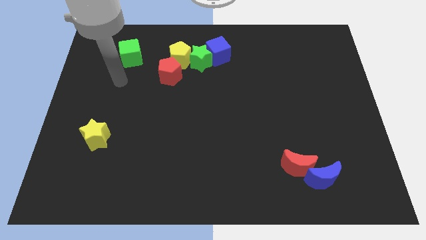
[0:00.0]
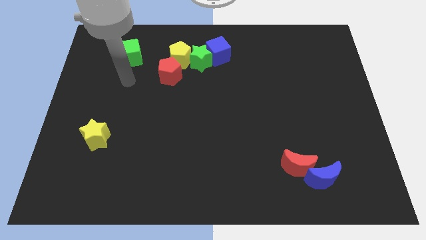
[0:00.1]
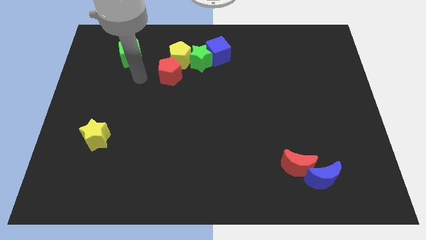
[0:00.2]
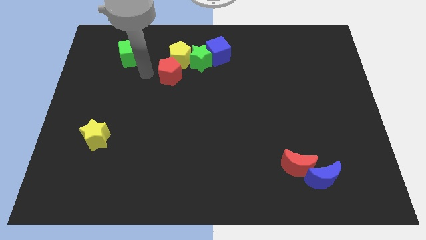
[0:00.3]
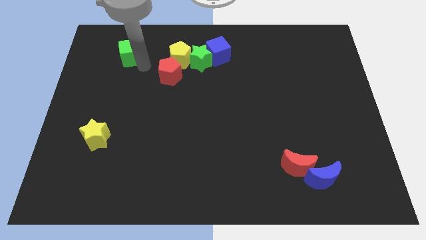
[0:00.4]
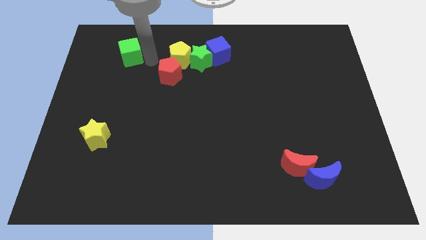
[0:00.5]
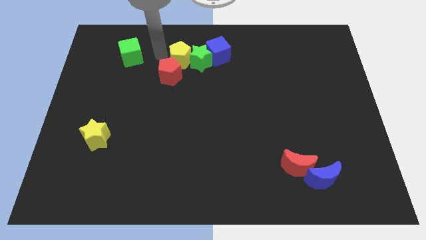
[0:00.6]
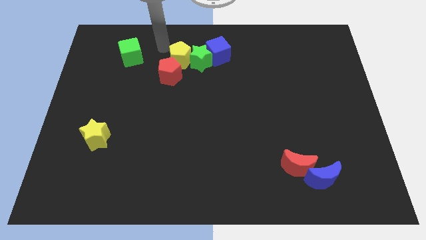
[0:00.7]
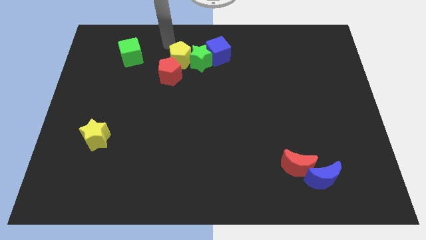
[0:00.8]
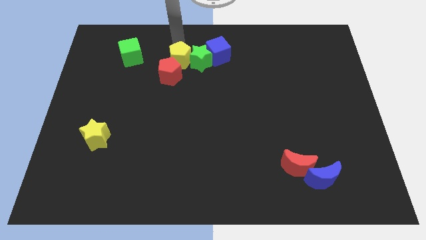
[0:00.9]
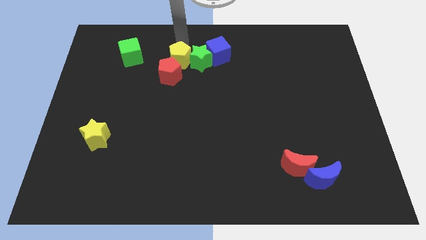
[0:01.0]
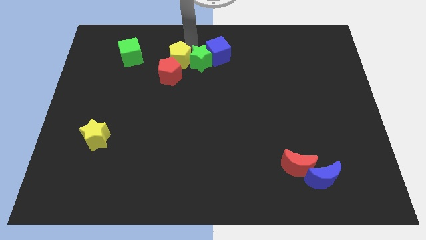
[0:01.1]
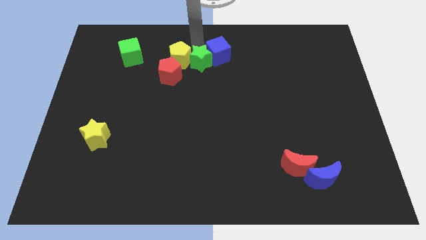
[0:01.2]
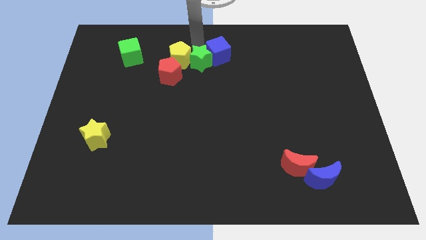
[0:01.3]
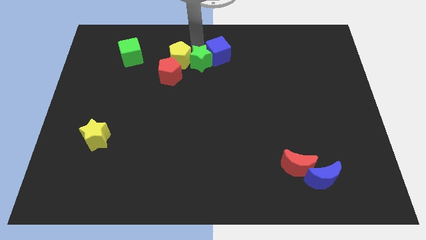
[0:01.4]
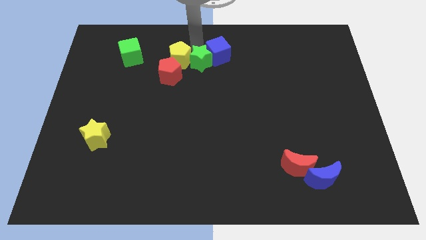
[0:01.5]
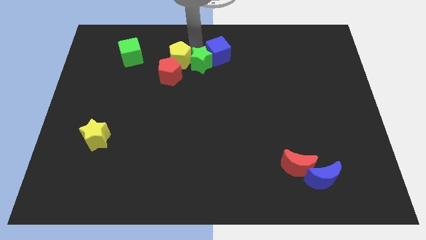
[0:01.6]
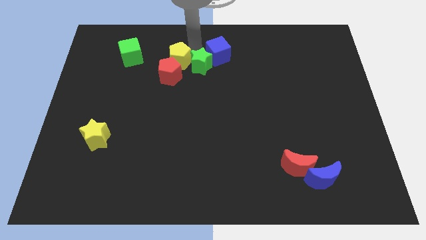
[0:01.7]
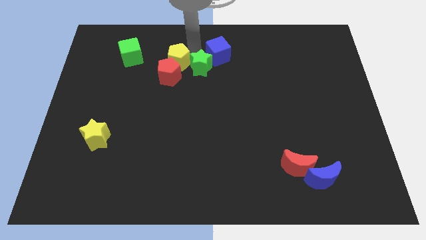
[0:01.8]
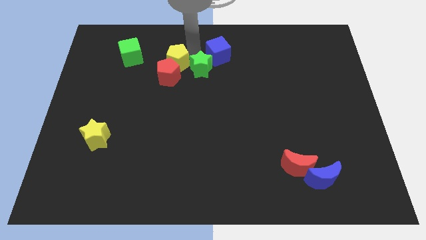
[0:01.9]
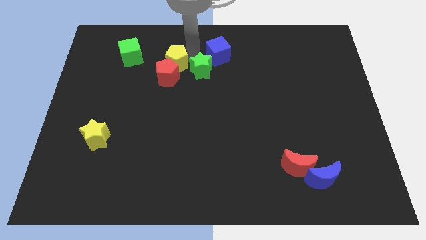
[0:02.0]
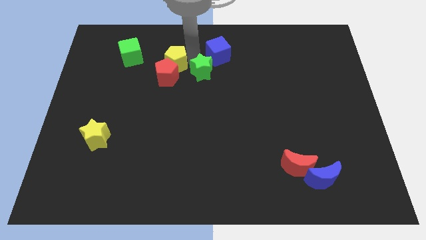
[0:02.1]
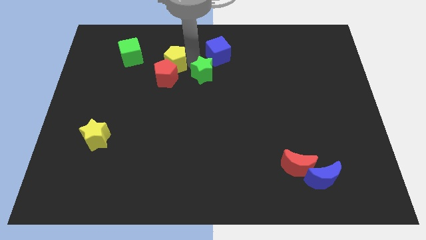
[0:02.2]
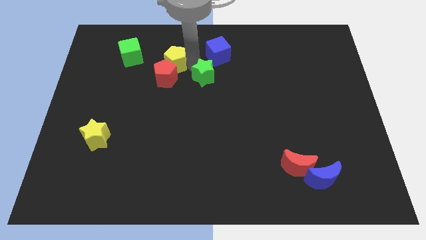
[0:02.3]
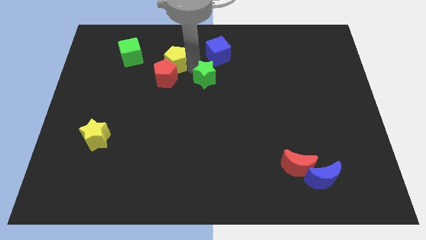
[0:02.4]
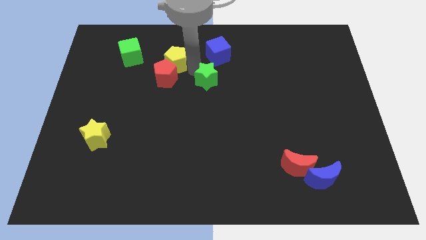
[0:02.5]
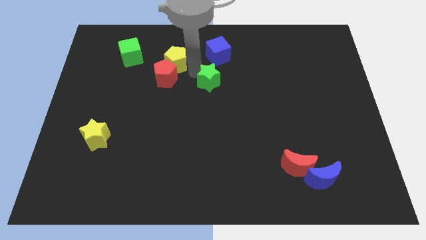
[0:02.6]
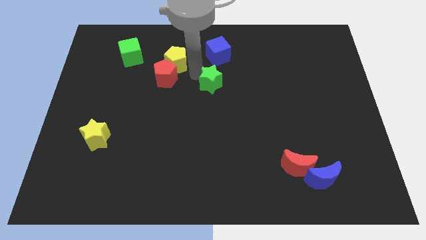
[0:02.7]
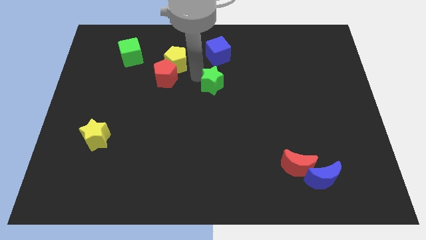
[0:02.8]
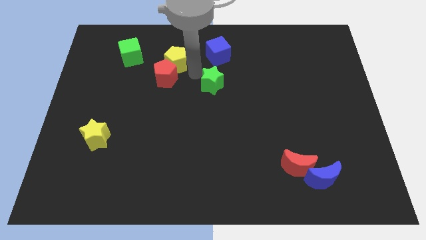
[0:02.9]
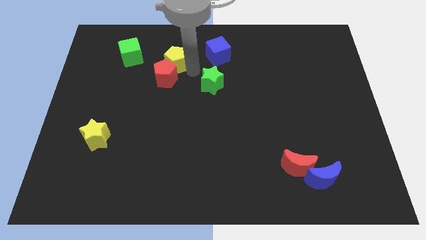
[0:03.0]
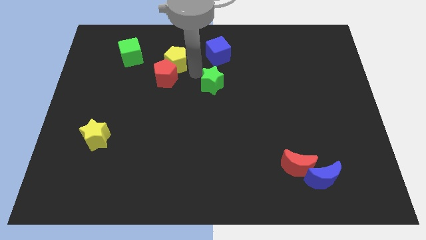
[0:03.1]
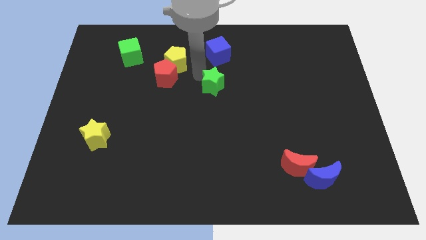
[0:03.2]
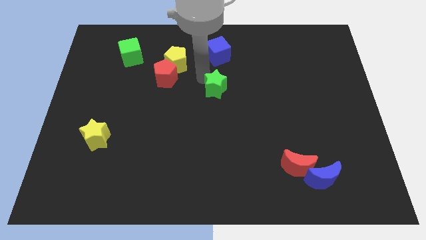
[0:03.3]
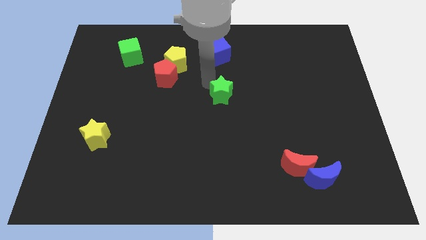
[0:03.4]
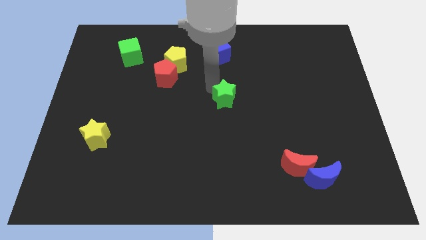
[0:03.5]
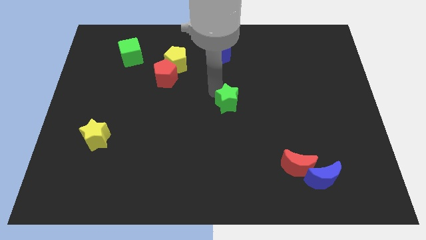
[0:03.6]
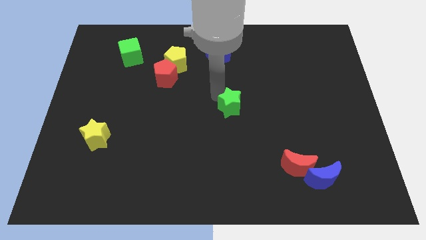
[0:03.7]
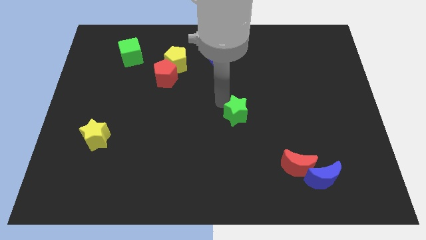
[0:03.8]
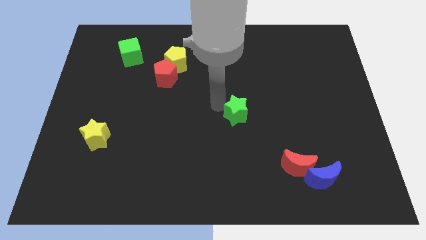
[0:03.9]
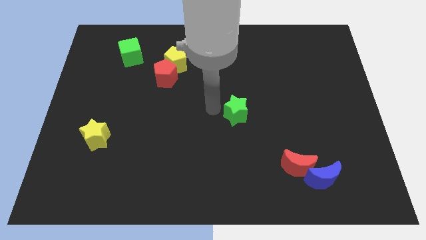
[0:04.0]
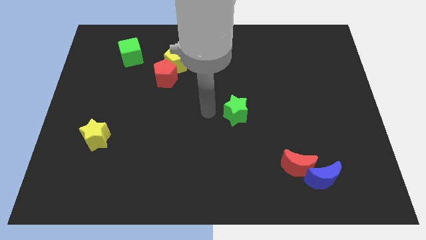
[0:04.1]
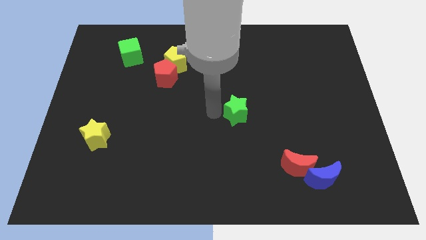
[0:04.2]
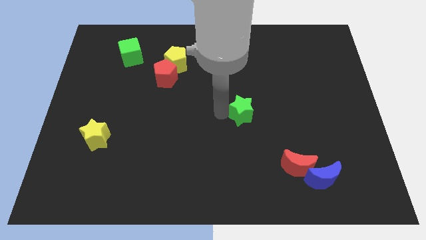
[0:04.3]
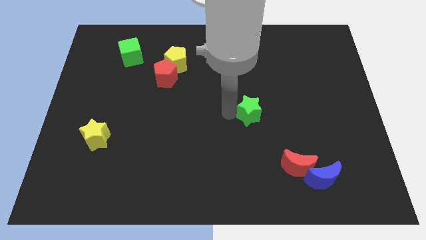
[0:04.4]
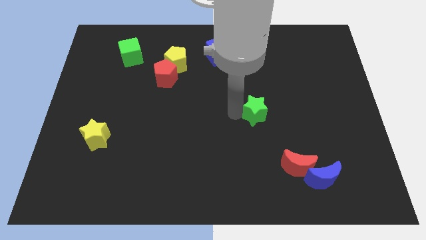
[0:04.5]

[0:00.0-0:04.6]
push the green star down and right

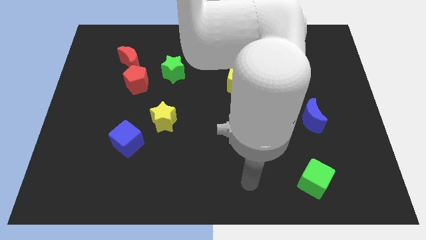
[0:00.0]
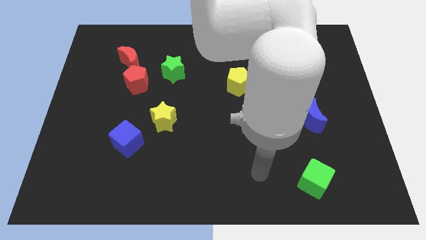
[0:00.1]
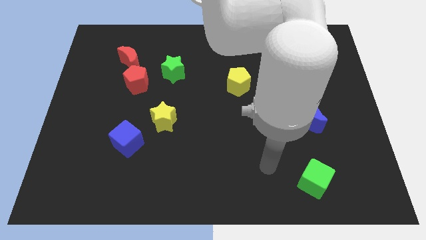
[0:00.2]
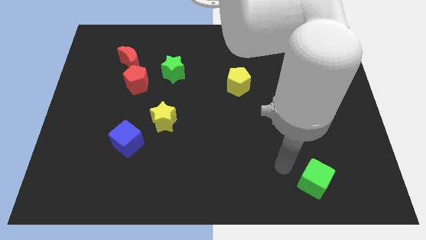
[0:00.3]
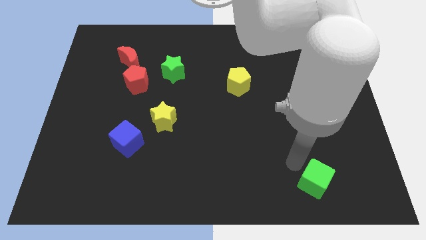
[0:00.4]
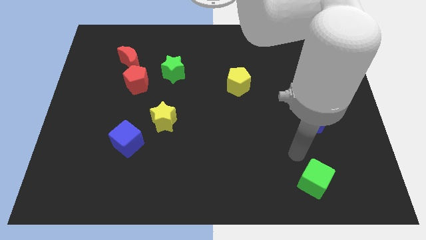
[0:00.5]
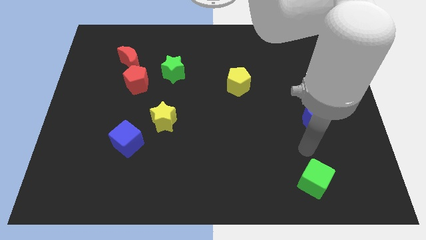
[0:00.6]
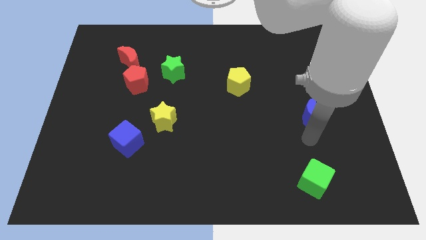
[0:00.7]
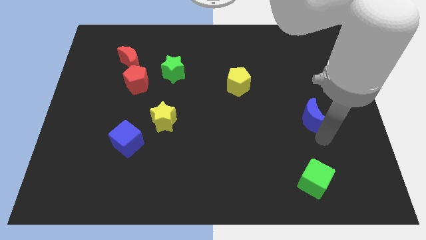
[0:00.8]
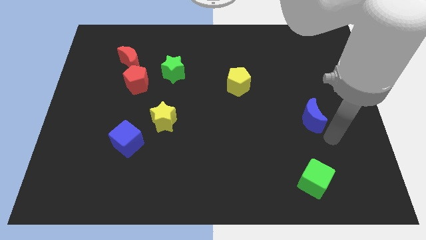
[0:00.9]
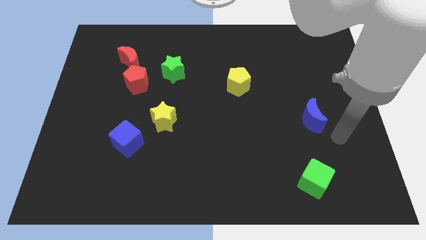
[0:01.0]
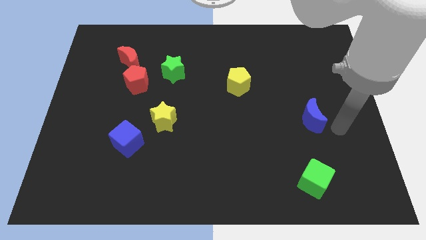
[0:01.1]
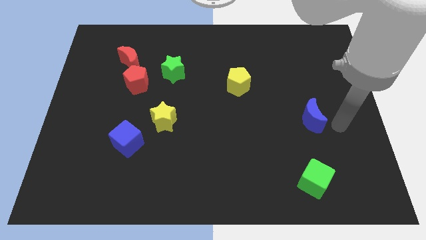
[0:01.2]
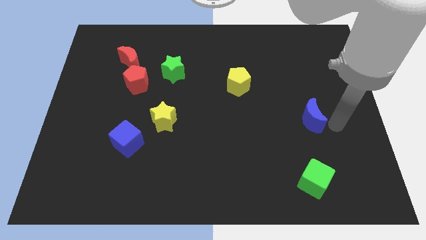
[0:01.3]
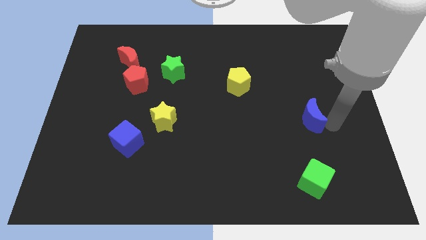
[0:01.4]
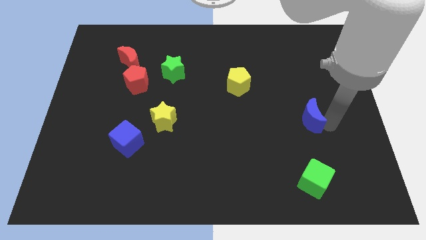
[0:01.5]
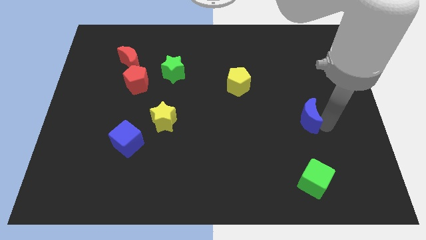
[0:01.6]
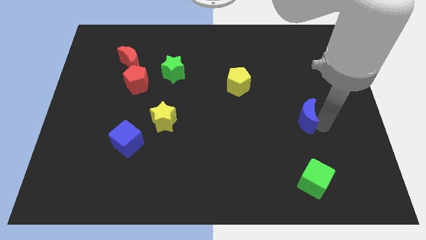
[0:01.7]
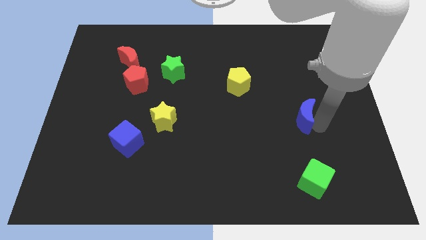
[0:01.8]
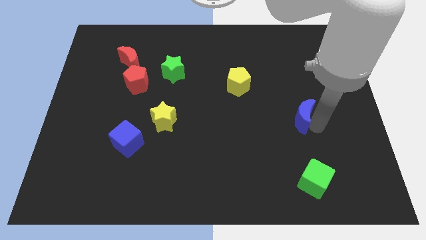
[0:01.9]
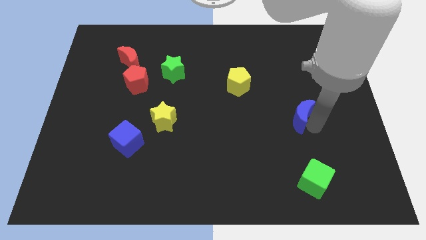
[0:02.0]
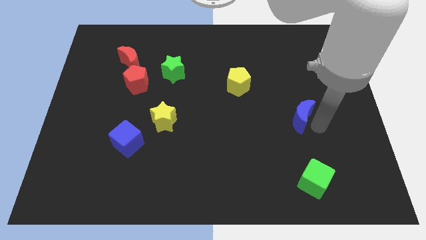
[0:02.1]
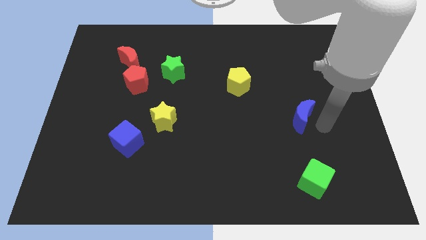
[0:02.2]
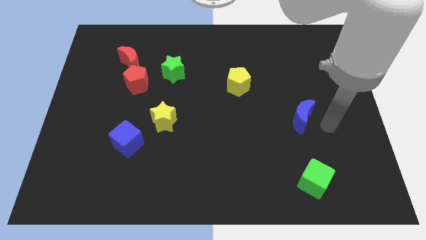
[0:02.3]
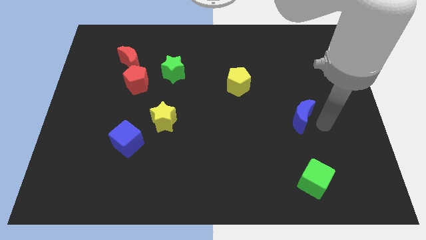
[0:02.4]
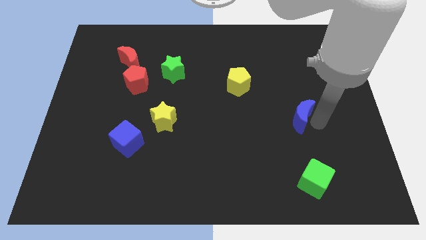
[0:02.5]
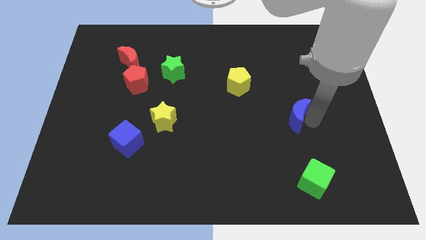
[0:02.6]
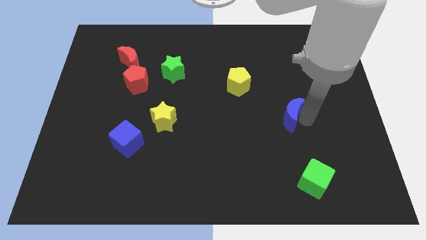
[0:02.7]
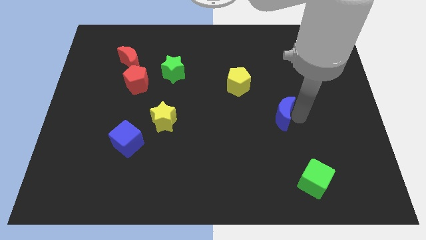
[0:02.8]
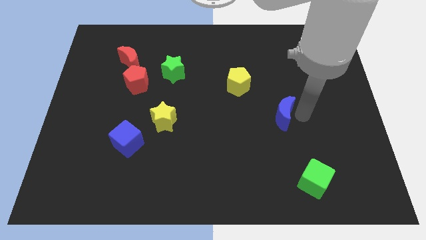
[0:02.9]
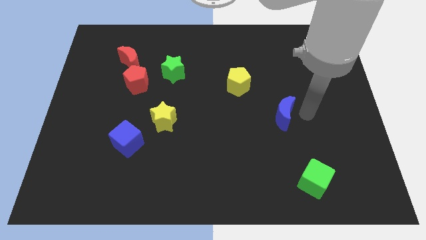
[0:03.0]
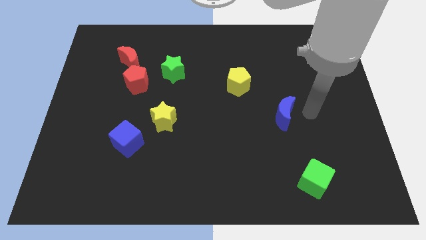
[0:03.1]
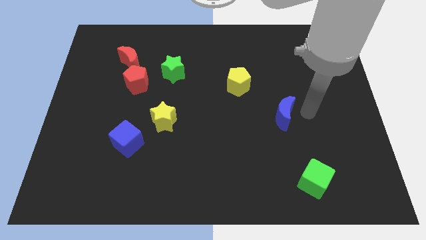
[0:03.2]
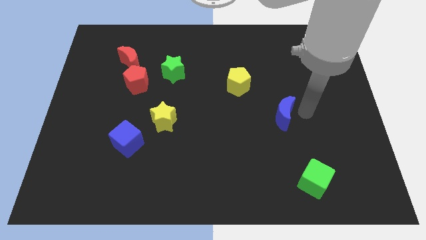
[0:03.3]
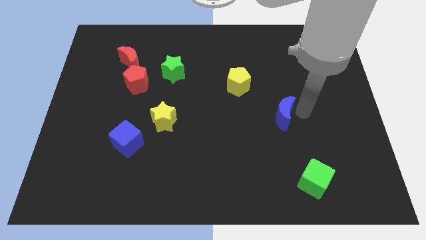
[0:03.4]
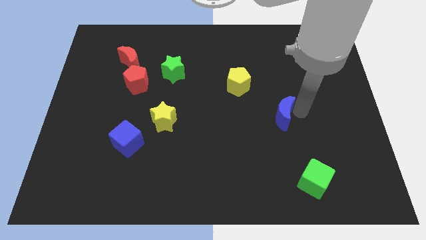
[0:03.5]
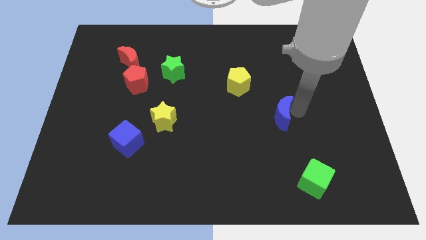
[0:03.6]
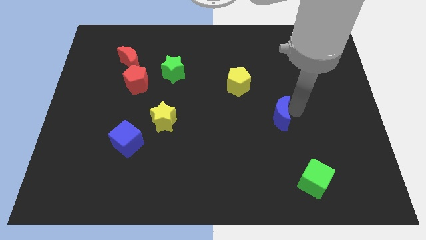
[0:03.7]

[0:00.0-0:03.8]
push the blue moon left a little bit
